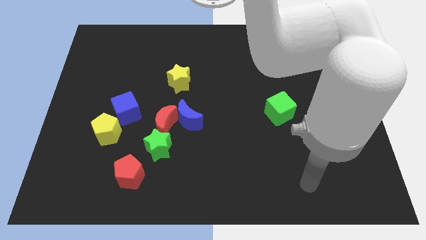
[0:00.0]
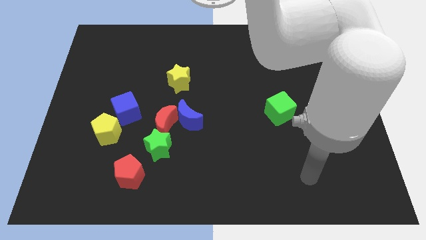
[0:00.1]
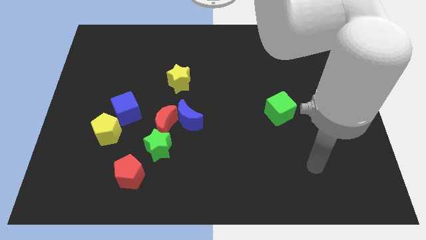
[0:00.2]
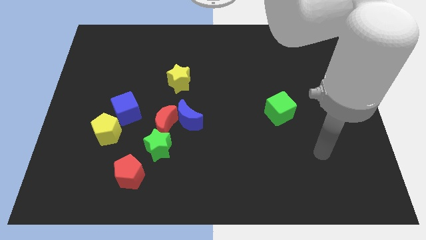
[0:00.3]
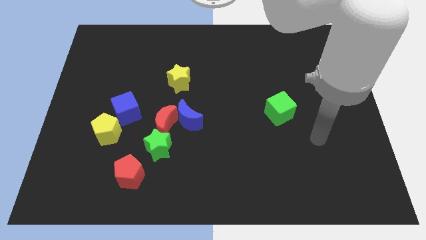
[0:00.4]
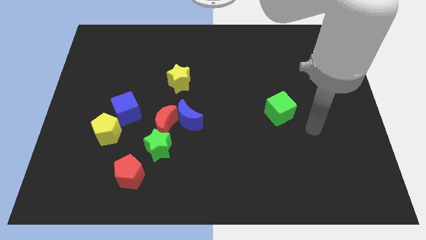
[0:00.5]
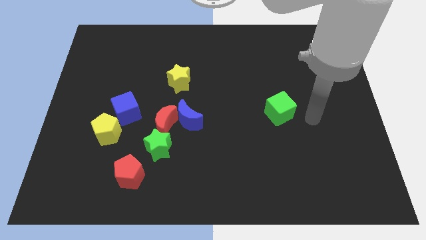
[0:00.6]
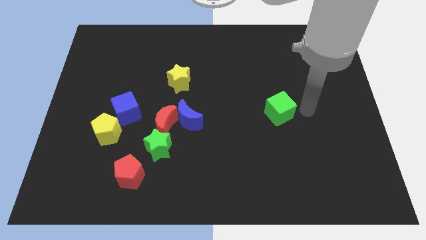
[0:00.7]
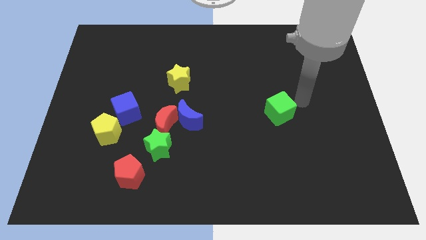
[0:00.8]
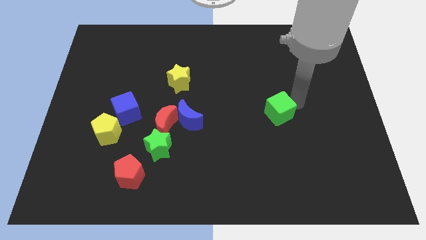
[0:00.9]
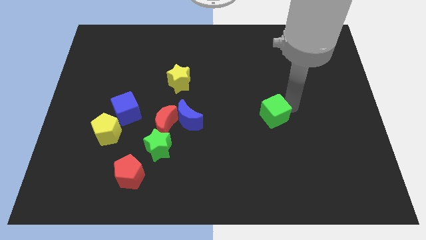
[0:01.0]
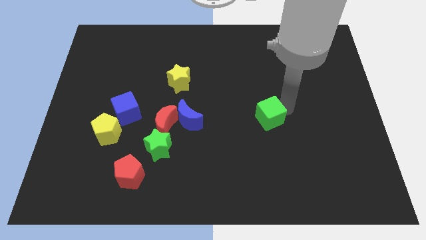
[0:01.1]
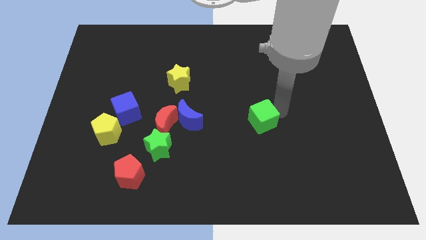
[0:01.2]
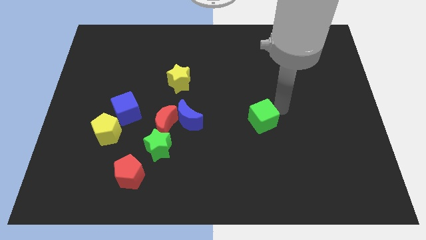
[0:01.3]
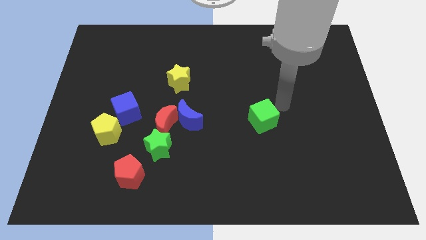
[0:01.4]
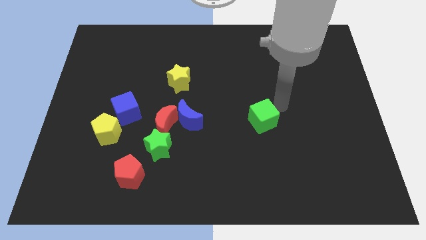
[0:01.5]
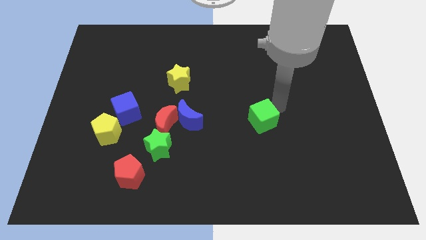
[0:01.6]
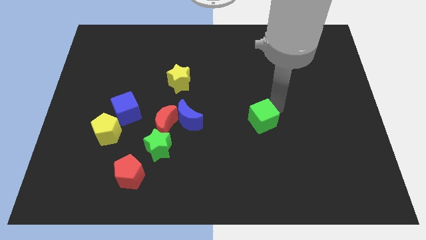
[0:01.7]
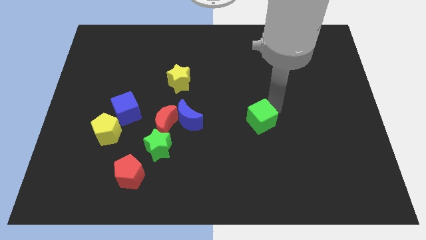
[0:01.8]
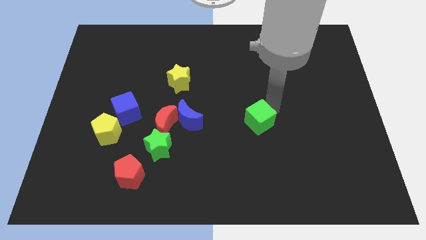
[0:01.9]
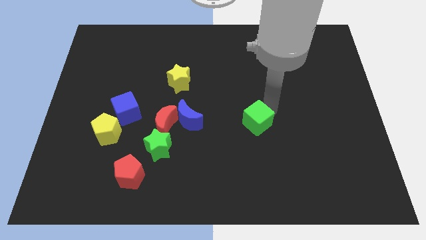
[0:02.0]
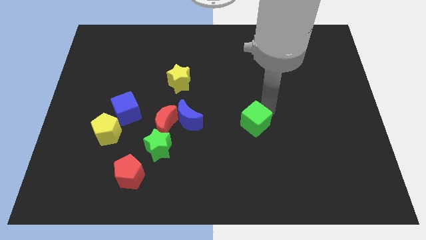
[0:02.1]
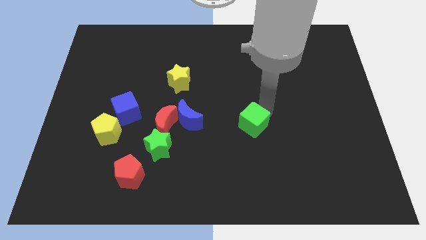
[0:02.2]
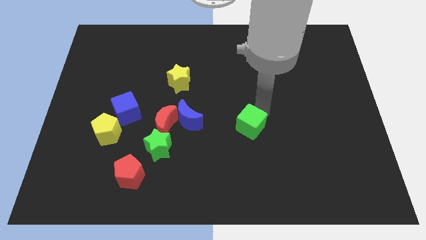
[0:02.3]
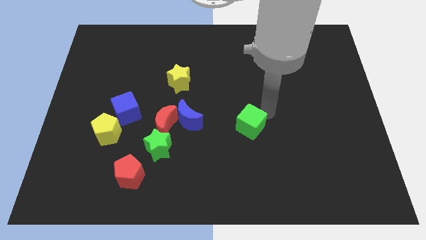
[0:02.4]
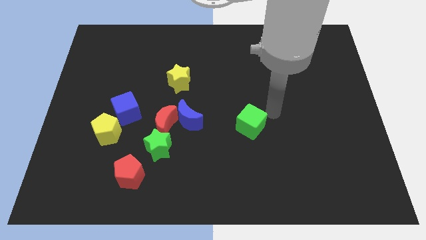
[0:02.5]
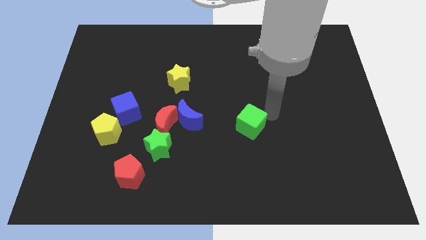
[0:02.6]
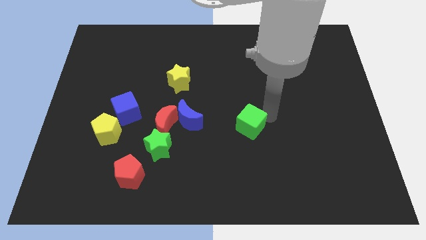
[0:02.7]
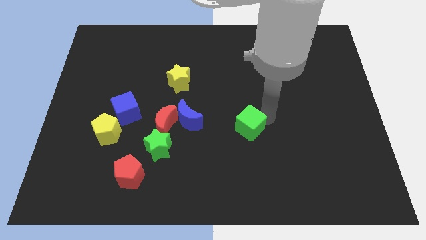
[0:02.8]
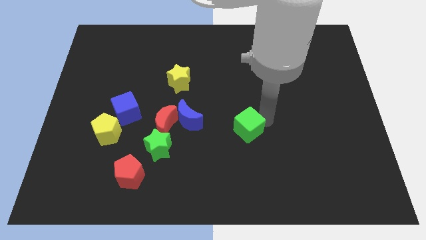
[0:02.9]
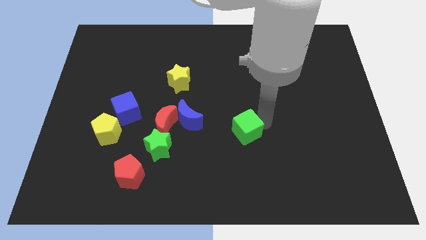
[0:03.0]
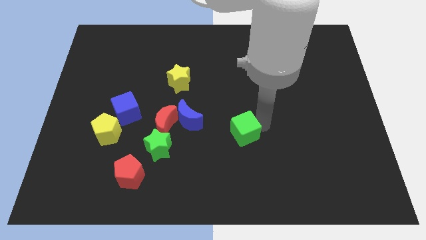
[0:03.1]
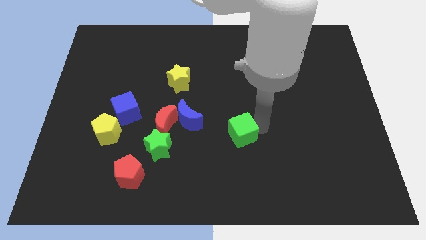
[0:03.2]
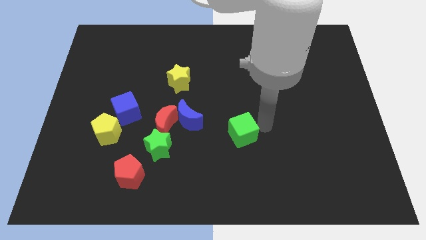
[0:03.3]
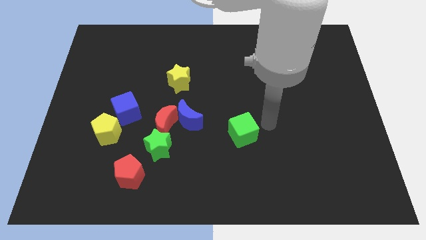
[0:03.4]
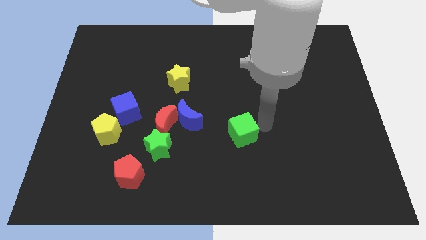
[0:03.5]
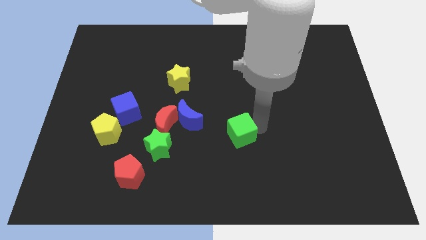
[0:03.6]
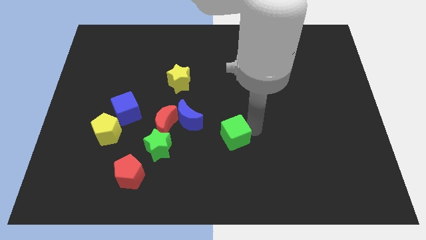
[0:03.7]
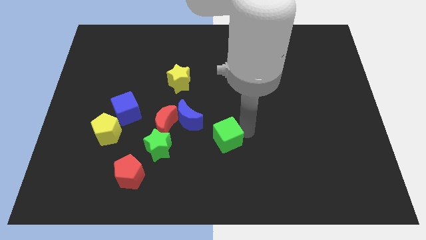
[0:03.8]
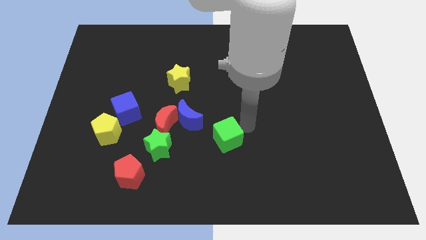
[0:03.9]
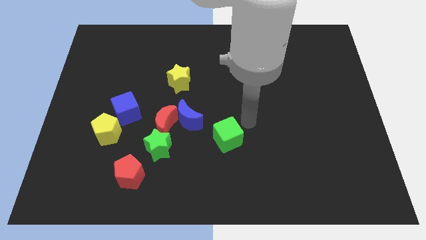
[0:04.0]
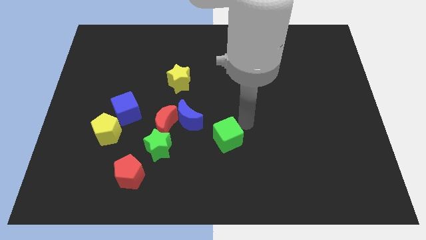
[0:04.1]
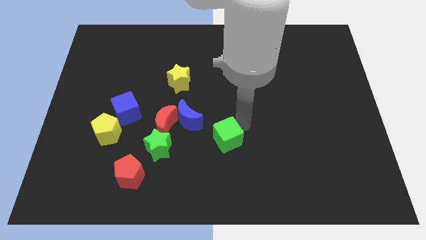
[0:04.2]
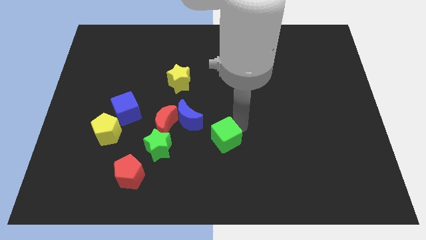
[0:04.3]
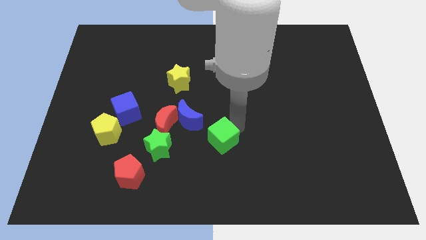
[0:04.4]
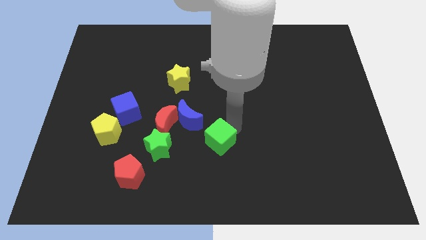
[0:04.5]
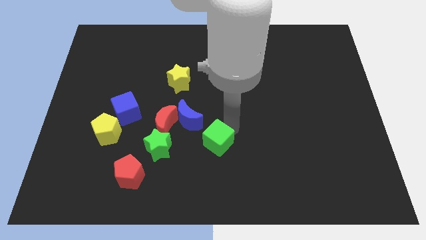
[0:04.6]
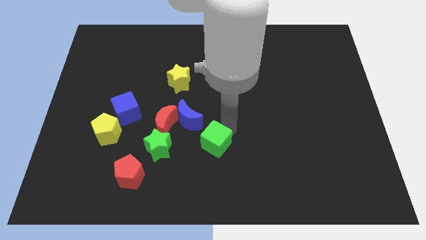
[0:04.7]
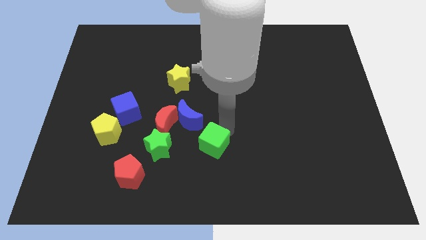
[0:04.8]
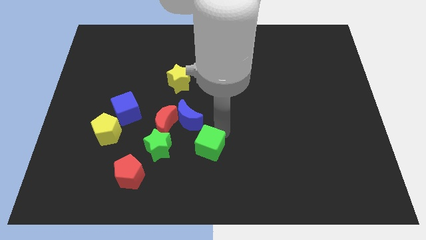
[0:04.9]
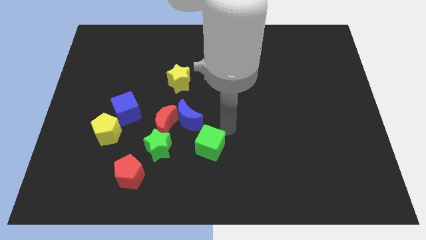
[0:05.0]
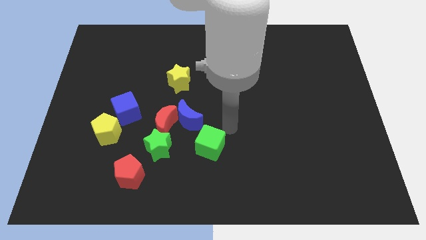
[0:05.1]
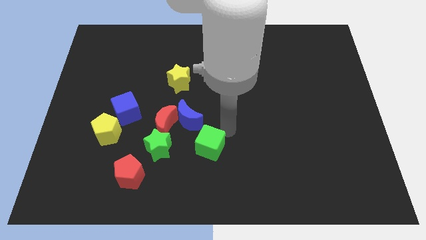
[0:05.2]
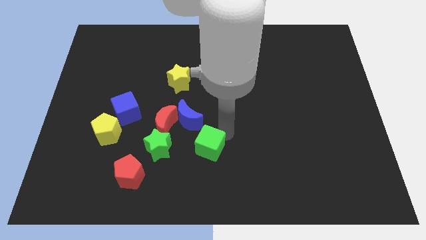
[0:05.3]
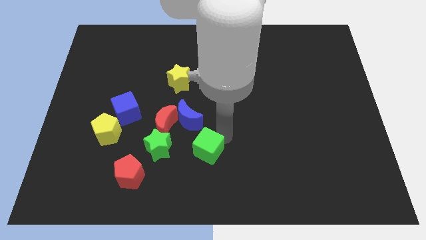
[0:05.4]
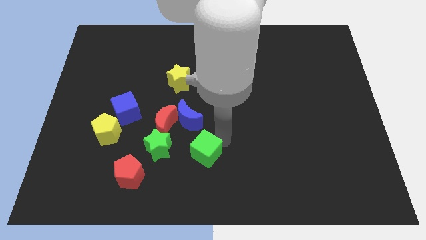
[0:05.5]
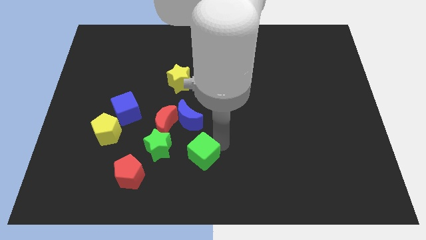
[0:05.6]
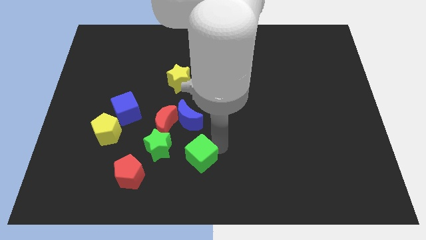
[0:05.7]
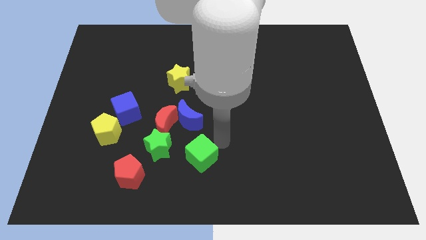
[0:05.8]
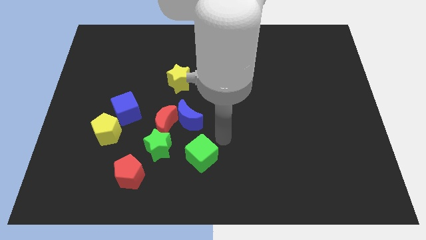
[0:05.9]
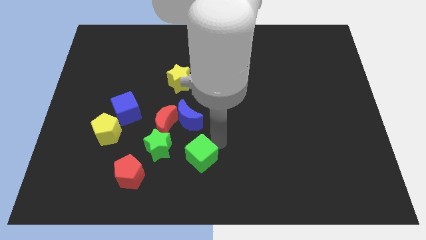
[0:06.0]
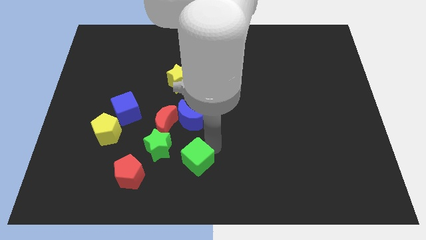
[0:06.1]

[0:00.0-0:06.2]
put the green cube to the right of the red pentagon

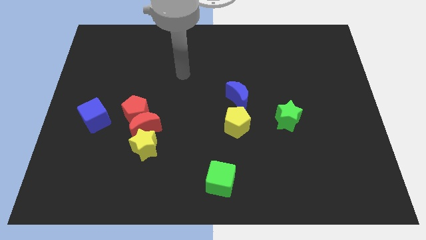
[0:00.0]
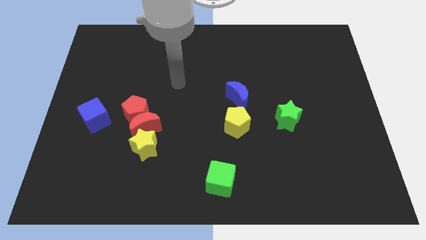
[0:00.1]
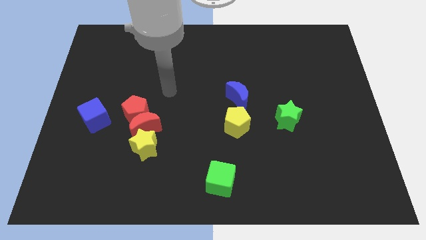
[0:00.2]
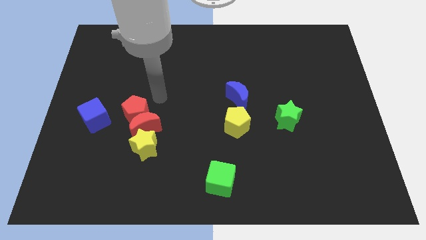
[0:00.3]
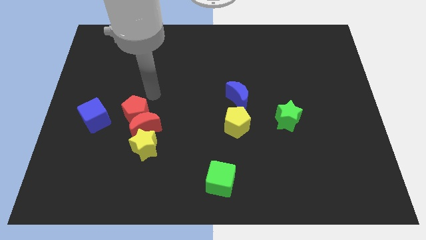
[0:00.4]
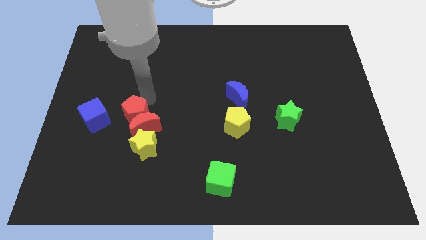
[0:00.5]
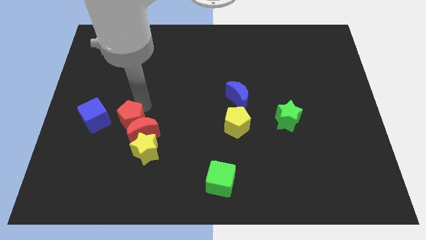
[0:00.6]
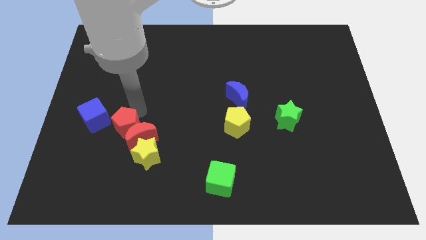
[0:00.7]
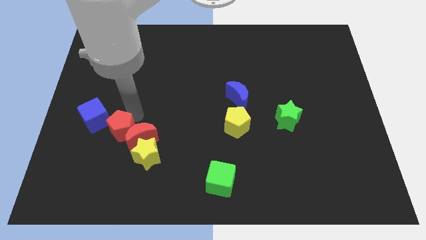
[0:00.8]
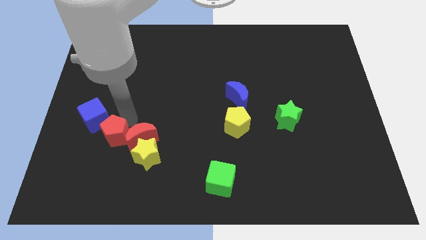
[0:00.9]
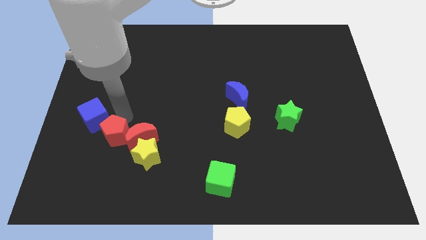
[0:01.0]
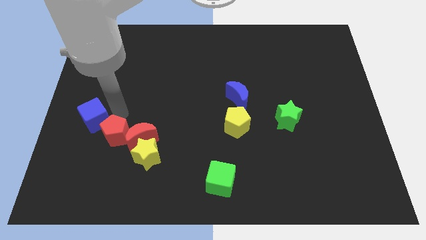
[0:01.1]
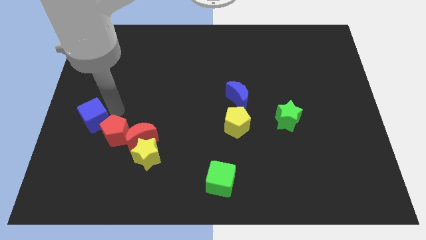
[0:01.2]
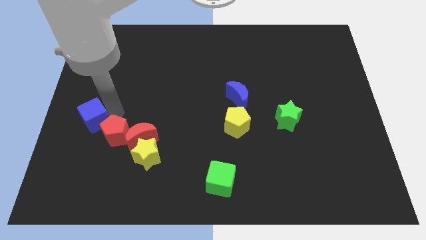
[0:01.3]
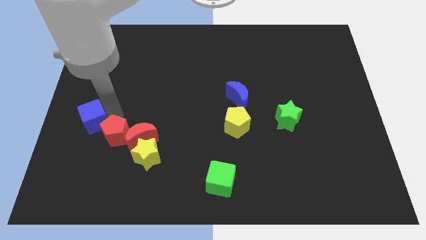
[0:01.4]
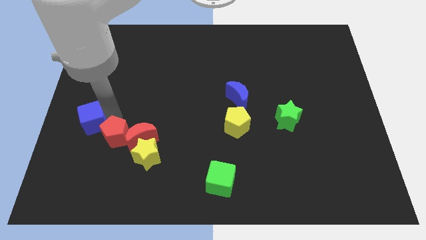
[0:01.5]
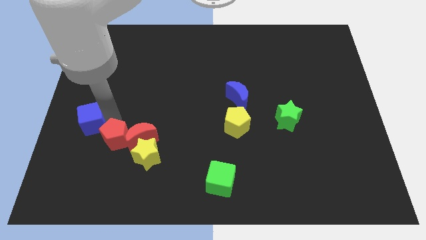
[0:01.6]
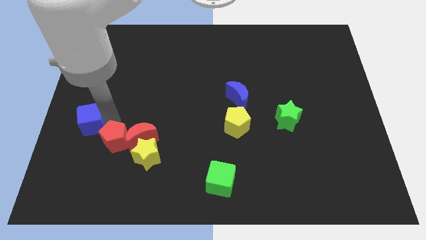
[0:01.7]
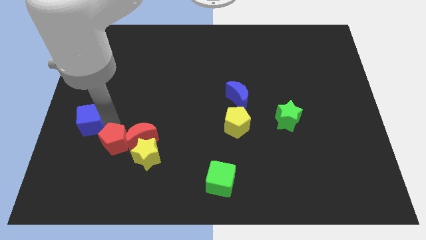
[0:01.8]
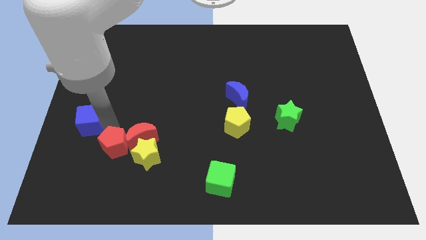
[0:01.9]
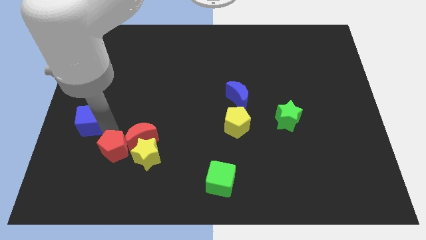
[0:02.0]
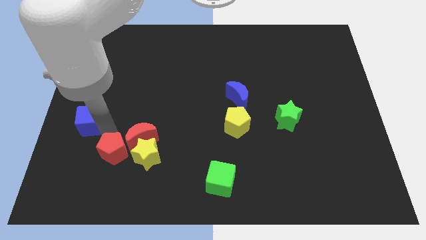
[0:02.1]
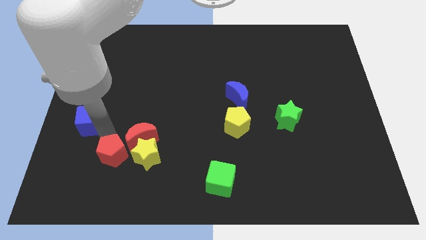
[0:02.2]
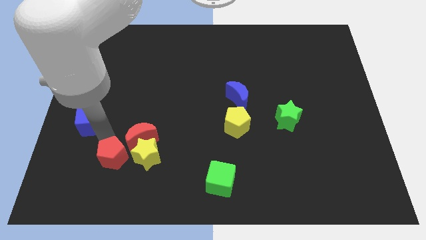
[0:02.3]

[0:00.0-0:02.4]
move the red pentagon to the bottom left side of the yellow star
